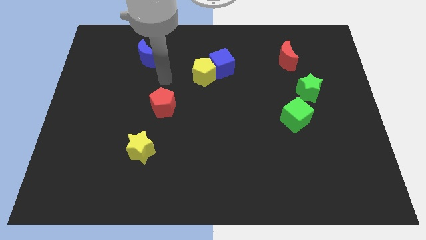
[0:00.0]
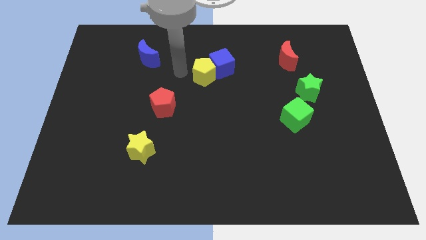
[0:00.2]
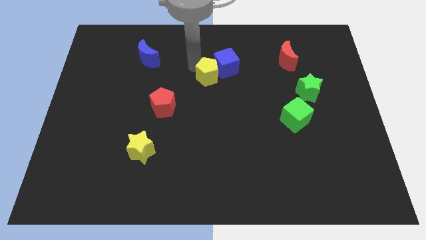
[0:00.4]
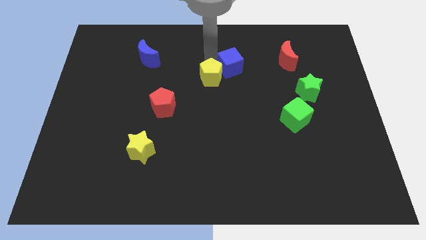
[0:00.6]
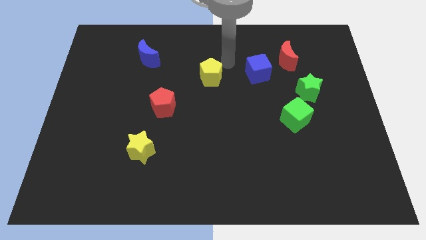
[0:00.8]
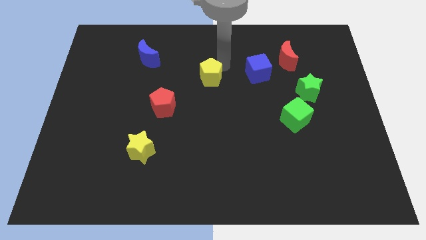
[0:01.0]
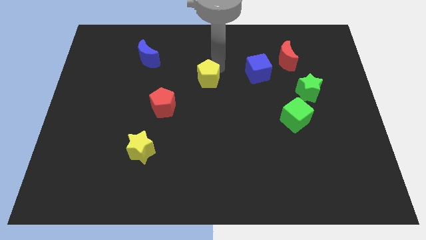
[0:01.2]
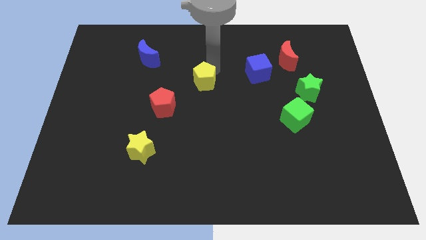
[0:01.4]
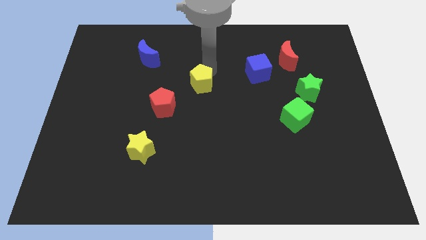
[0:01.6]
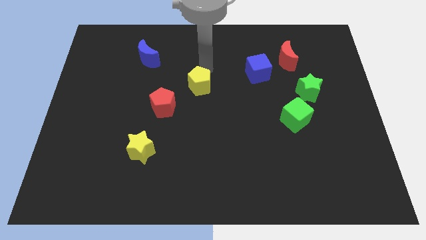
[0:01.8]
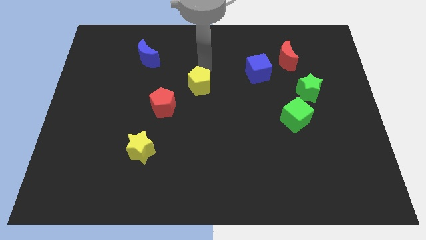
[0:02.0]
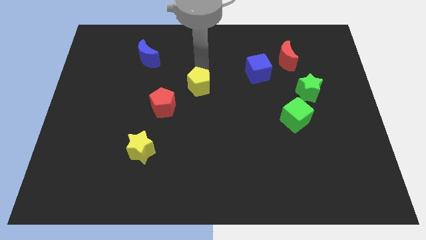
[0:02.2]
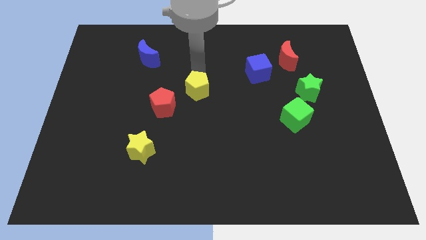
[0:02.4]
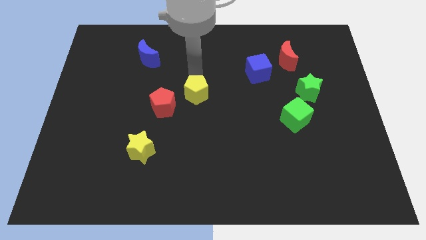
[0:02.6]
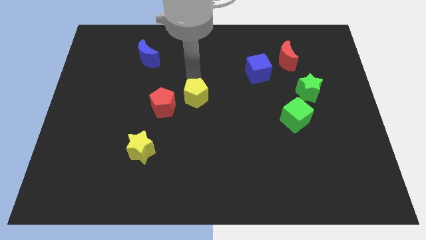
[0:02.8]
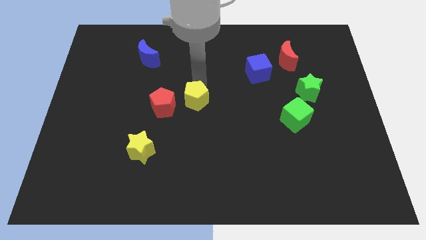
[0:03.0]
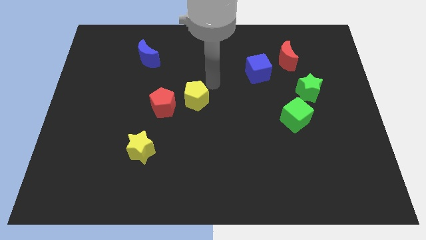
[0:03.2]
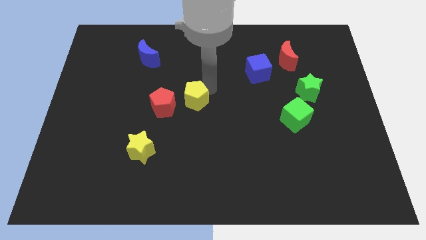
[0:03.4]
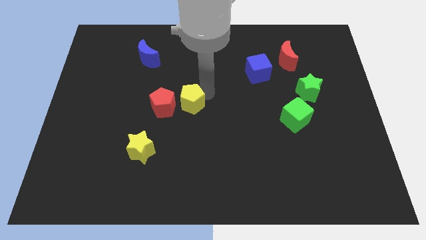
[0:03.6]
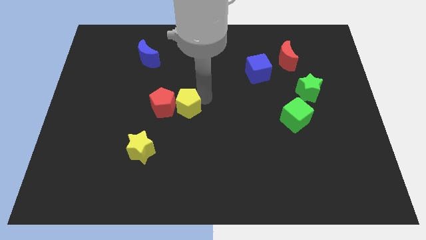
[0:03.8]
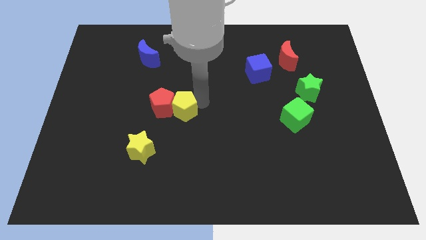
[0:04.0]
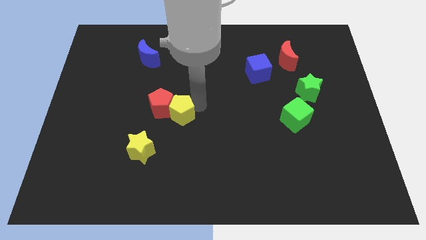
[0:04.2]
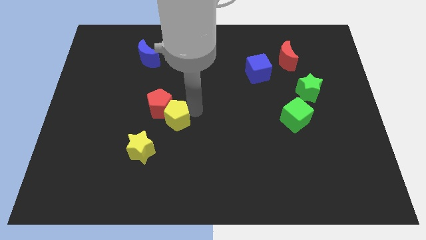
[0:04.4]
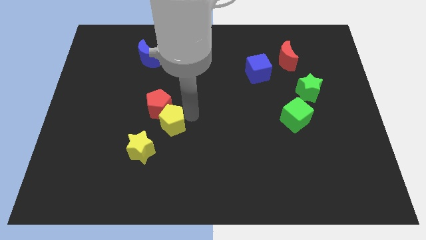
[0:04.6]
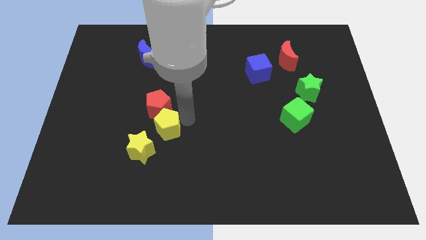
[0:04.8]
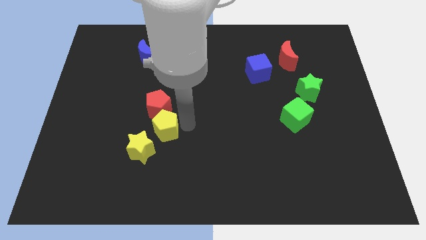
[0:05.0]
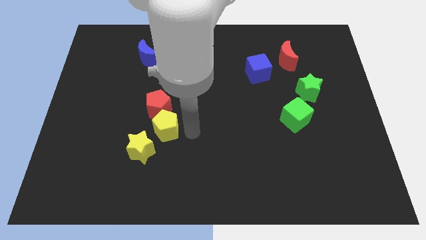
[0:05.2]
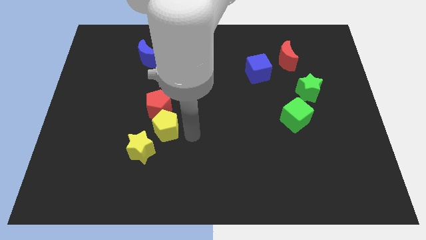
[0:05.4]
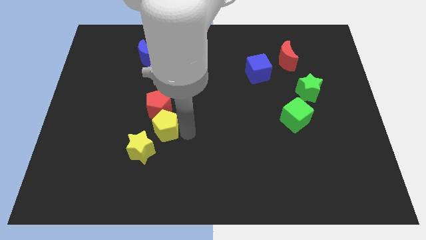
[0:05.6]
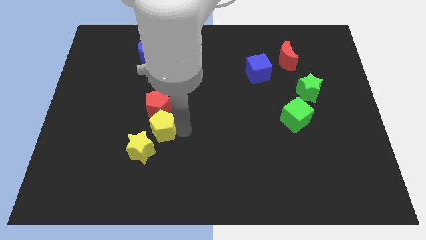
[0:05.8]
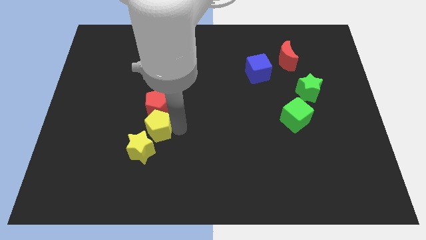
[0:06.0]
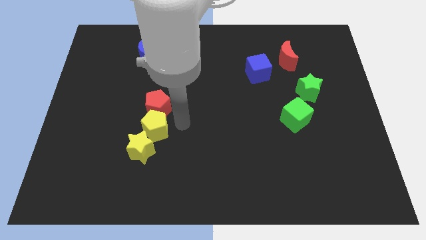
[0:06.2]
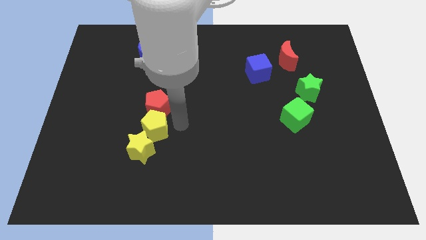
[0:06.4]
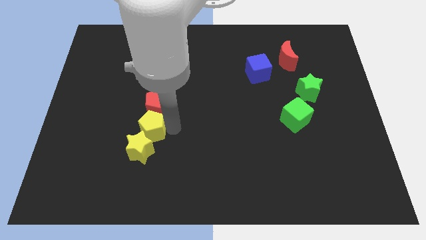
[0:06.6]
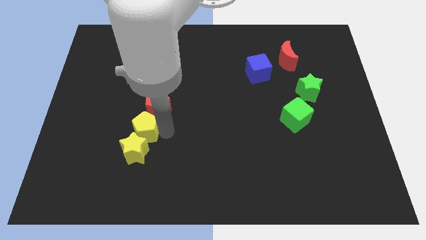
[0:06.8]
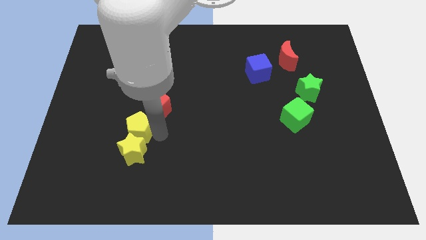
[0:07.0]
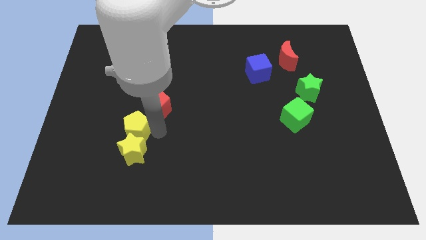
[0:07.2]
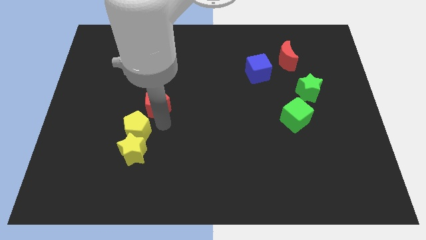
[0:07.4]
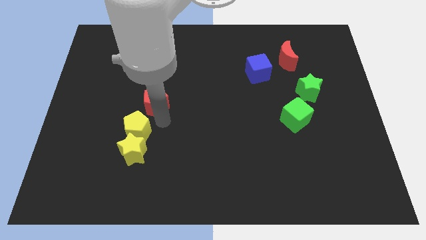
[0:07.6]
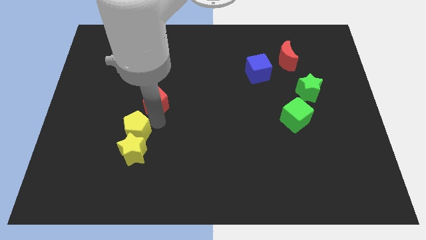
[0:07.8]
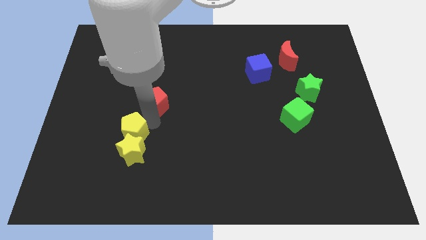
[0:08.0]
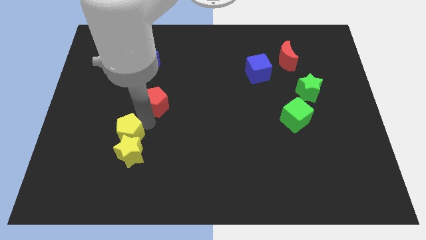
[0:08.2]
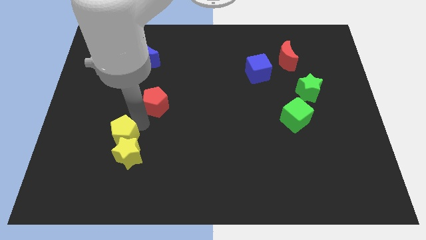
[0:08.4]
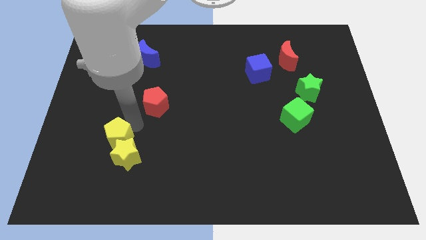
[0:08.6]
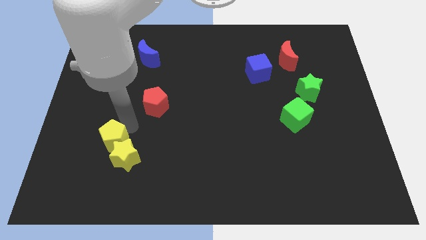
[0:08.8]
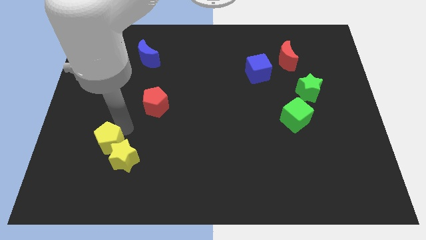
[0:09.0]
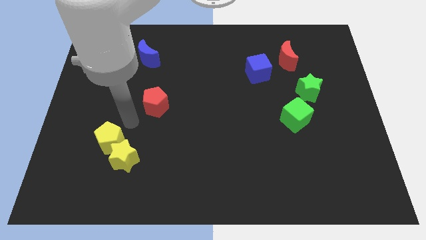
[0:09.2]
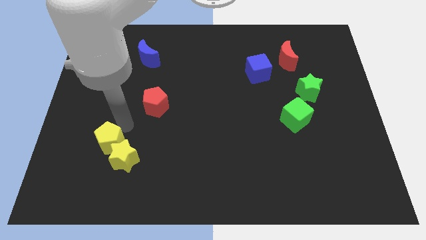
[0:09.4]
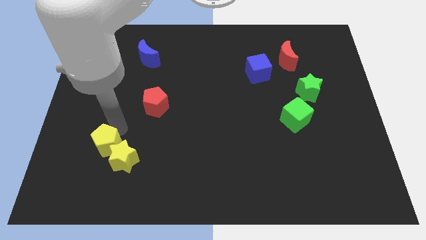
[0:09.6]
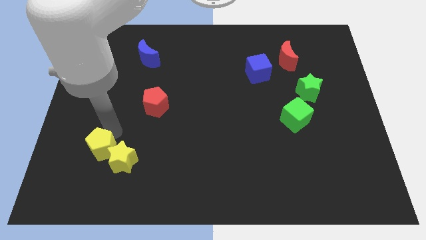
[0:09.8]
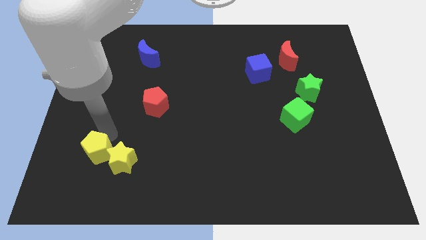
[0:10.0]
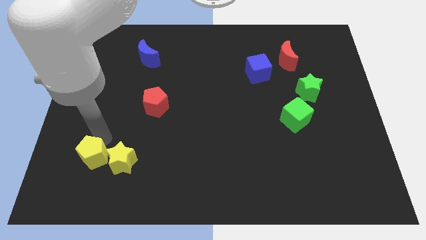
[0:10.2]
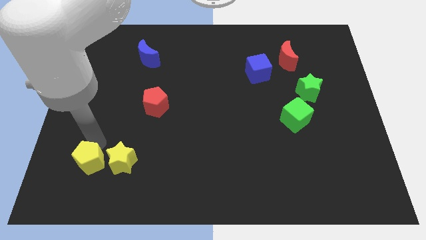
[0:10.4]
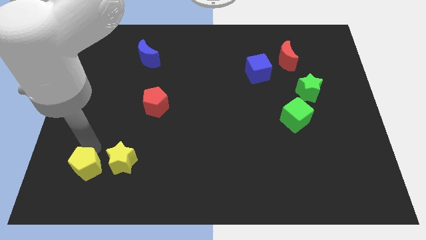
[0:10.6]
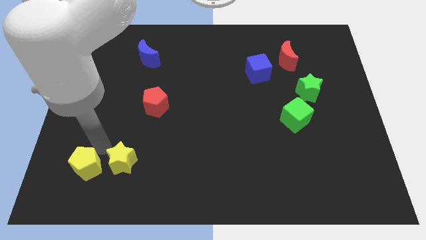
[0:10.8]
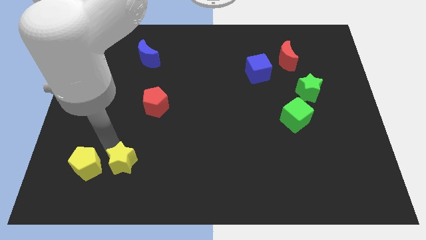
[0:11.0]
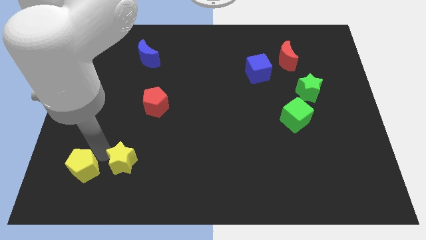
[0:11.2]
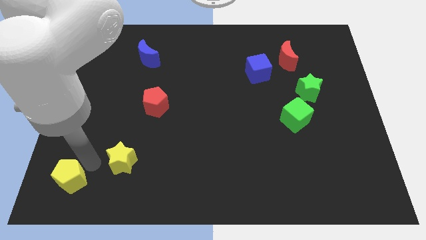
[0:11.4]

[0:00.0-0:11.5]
slide the yellow pentagon to the lower left corner
